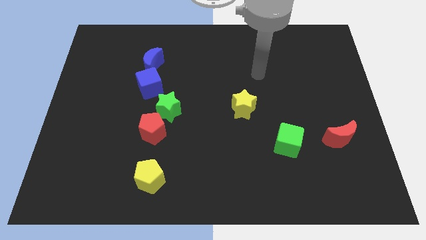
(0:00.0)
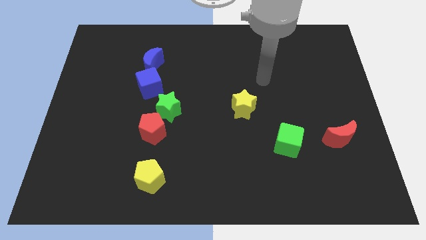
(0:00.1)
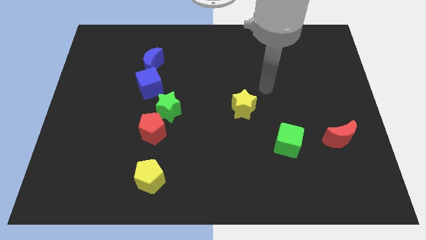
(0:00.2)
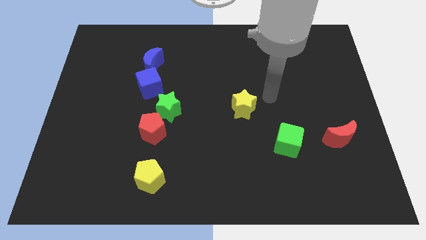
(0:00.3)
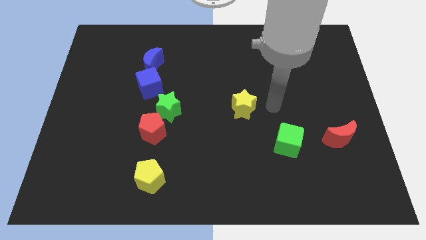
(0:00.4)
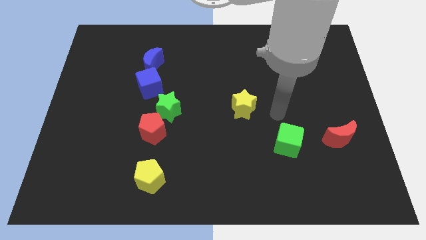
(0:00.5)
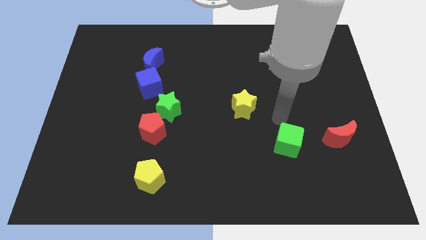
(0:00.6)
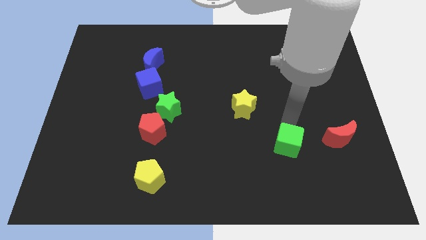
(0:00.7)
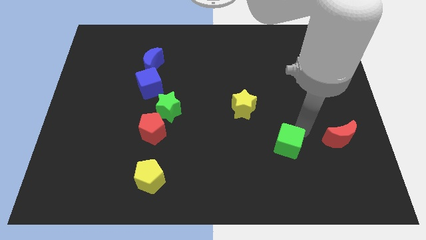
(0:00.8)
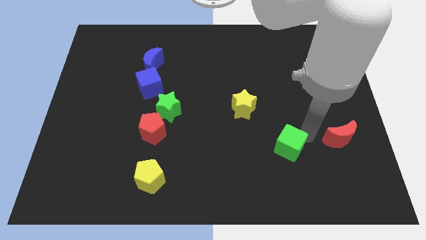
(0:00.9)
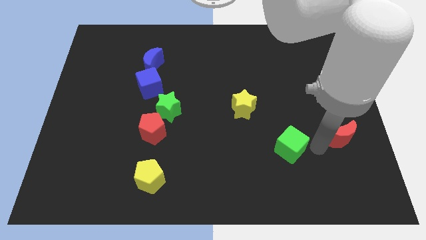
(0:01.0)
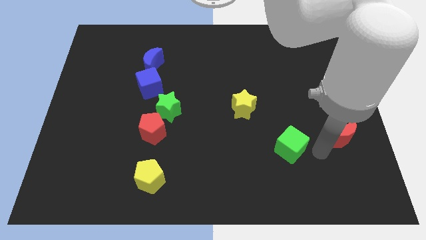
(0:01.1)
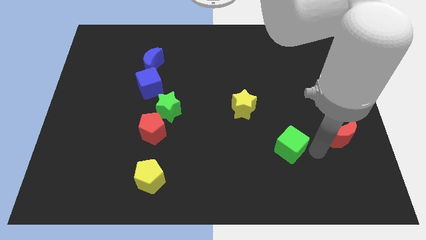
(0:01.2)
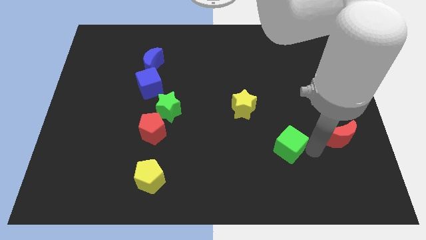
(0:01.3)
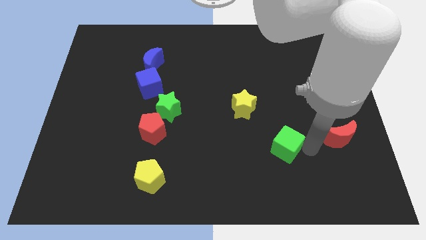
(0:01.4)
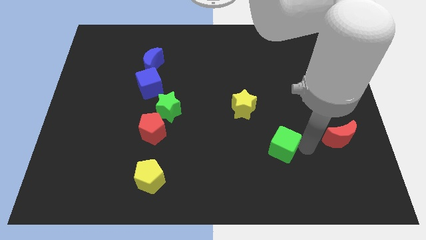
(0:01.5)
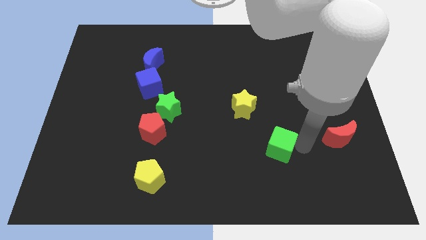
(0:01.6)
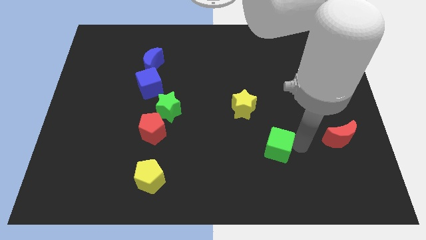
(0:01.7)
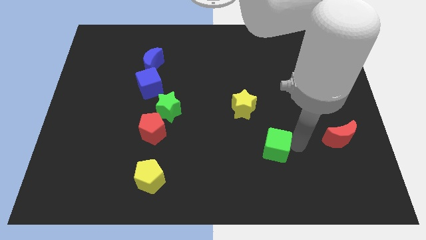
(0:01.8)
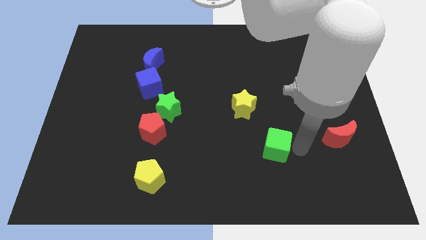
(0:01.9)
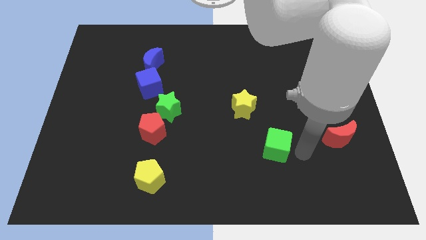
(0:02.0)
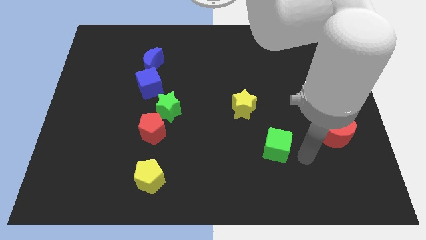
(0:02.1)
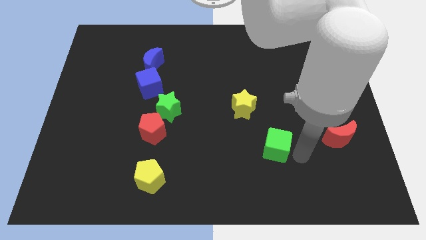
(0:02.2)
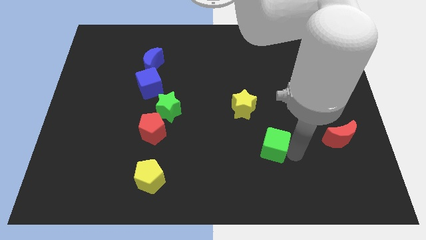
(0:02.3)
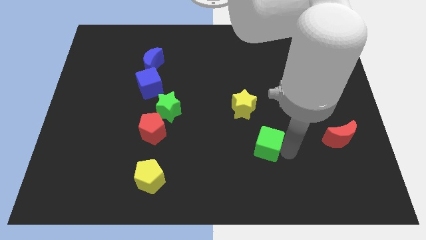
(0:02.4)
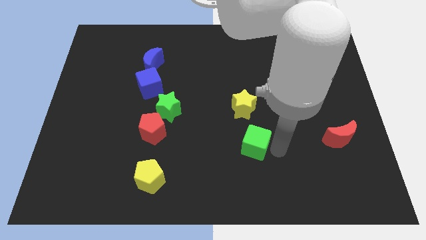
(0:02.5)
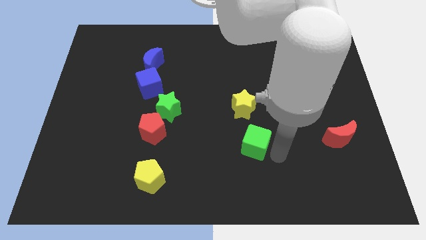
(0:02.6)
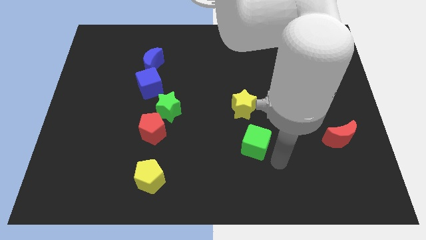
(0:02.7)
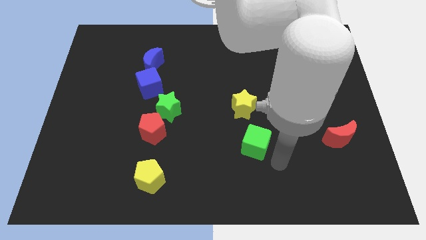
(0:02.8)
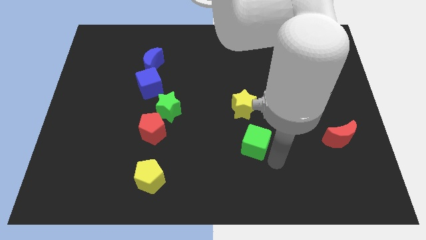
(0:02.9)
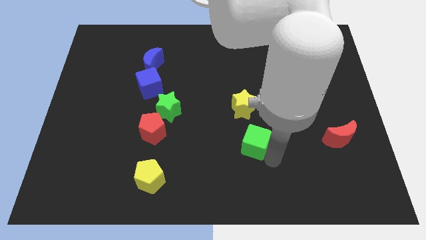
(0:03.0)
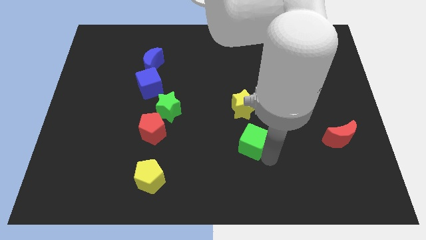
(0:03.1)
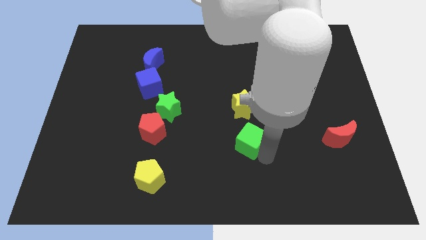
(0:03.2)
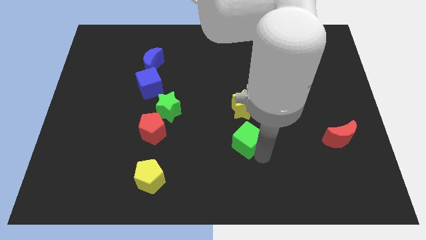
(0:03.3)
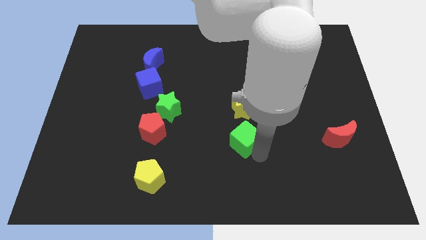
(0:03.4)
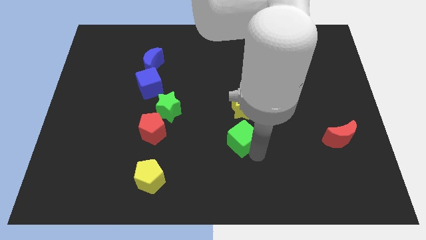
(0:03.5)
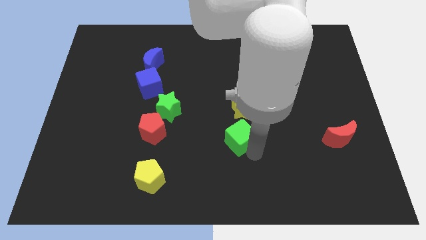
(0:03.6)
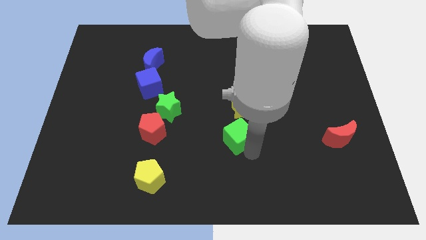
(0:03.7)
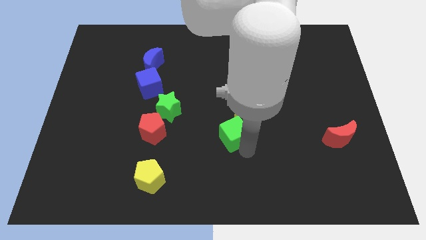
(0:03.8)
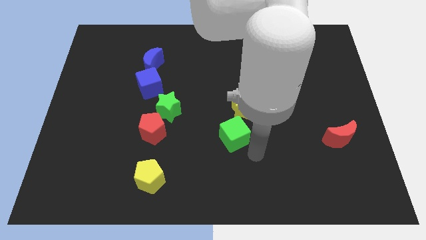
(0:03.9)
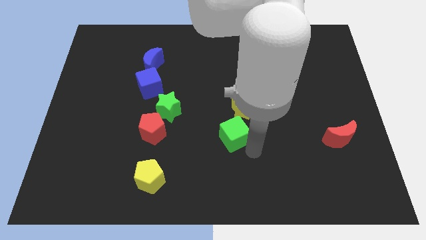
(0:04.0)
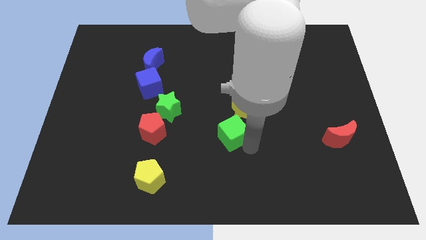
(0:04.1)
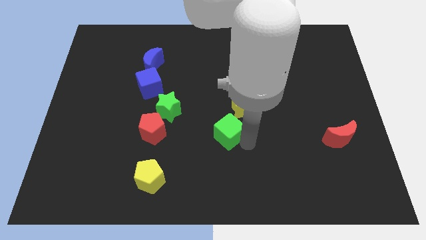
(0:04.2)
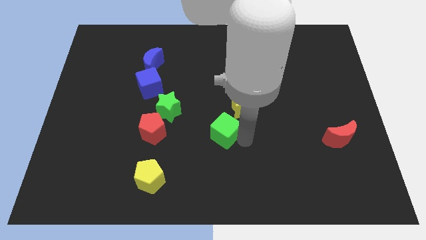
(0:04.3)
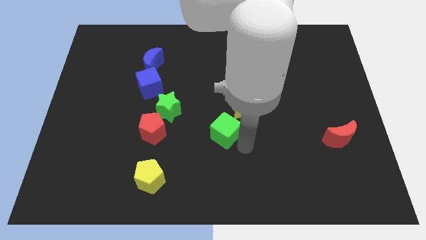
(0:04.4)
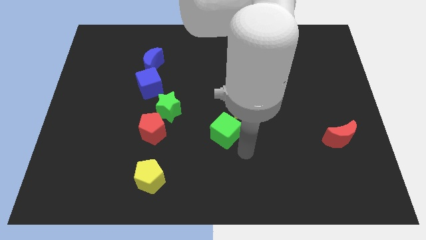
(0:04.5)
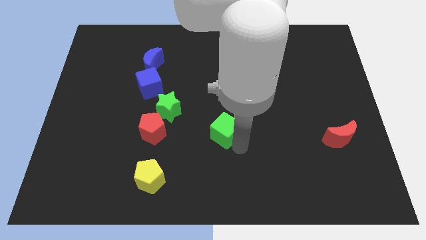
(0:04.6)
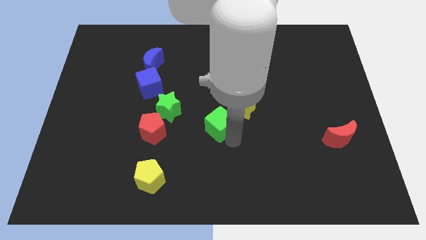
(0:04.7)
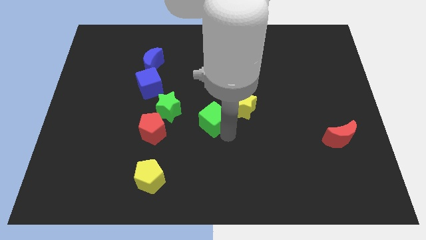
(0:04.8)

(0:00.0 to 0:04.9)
move the green cube left of the yellow star

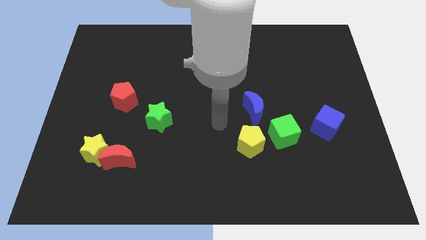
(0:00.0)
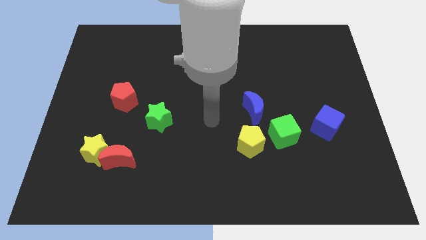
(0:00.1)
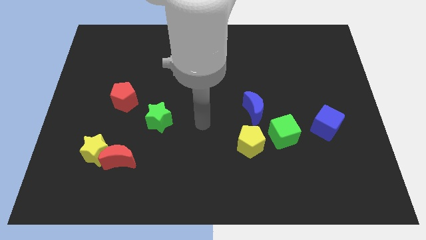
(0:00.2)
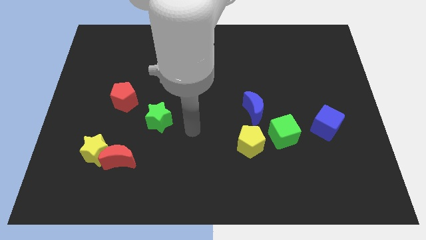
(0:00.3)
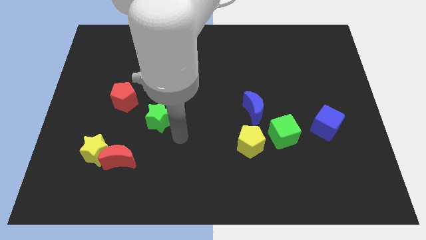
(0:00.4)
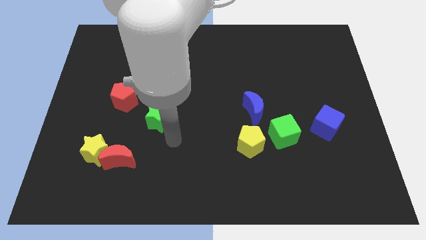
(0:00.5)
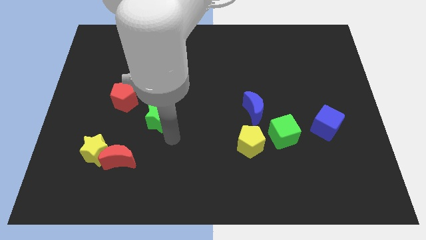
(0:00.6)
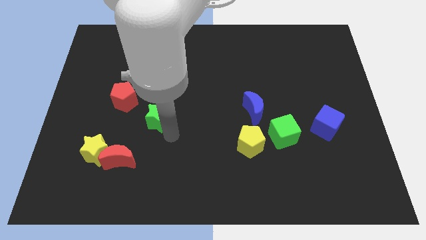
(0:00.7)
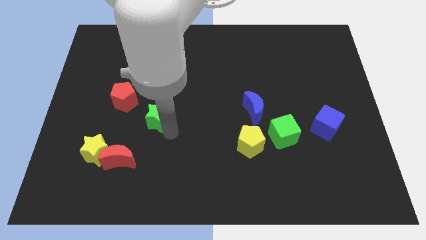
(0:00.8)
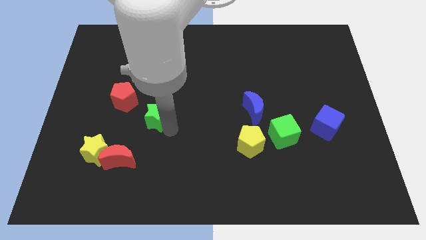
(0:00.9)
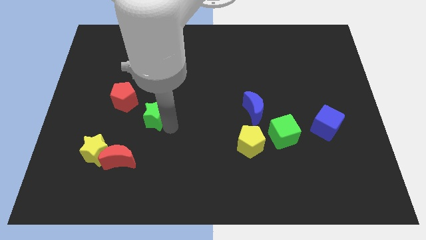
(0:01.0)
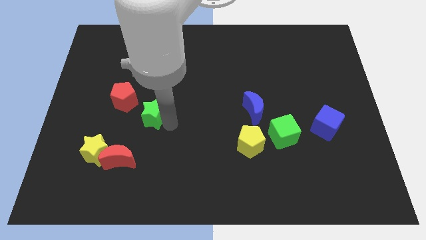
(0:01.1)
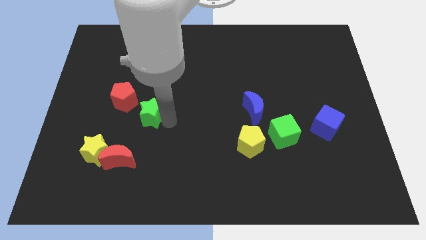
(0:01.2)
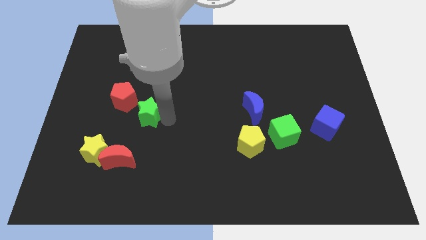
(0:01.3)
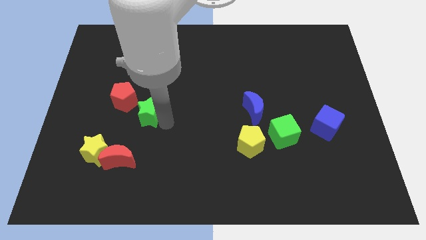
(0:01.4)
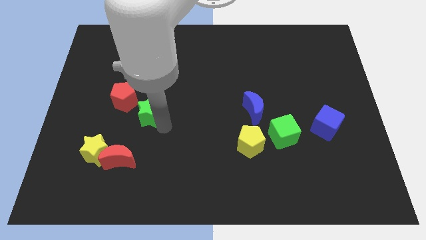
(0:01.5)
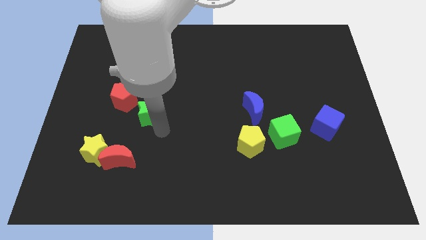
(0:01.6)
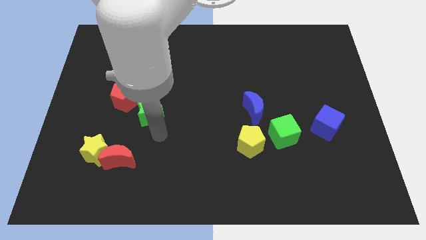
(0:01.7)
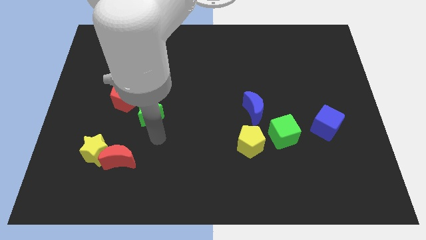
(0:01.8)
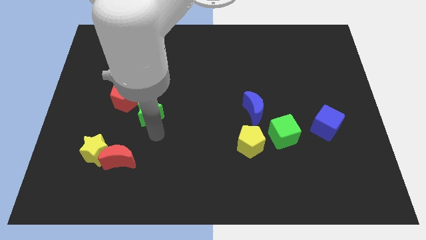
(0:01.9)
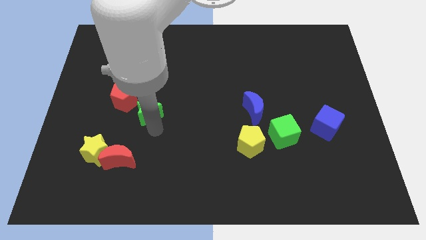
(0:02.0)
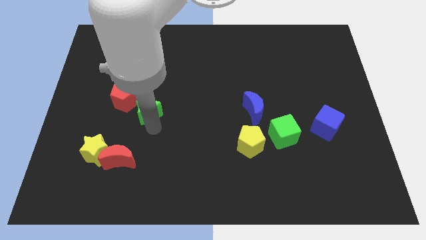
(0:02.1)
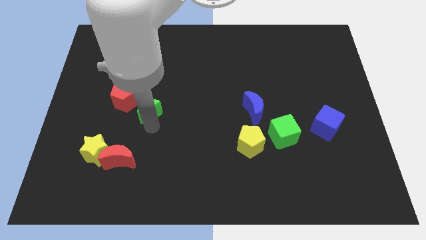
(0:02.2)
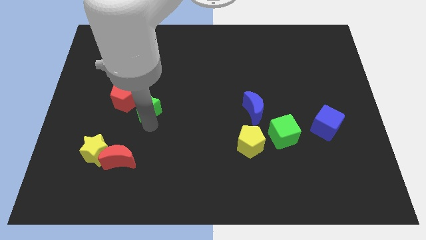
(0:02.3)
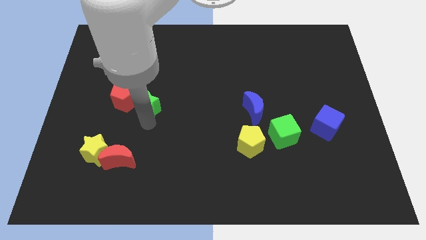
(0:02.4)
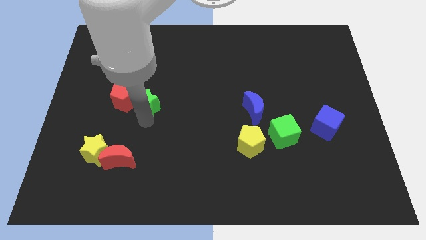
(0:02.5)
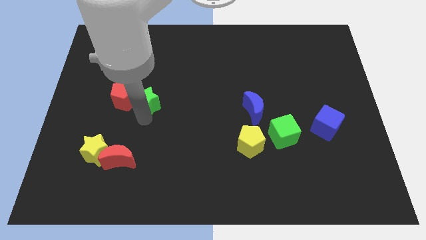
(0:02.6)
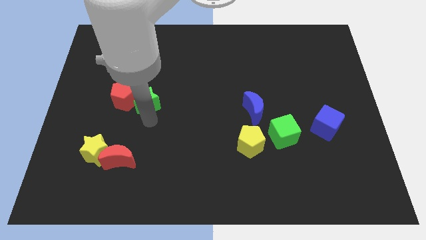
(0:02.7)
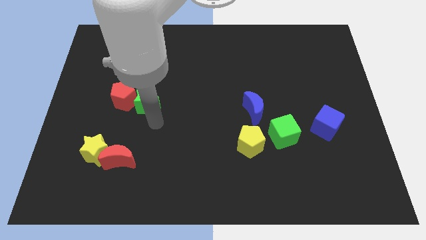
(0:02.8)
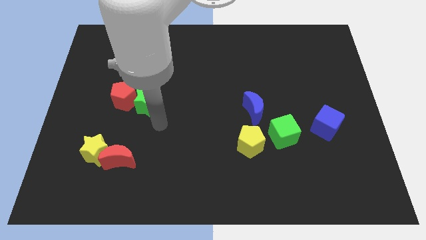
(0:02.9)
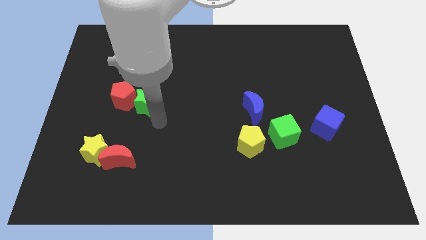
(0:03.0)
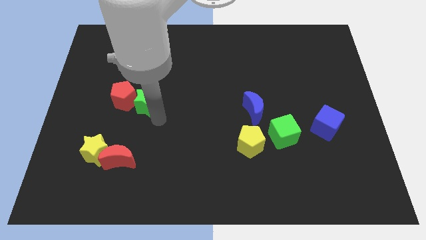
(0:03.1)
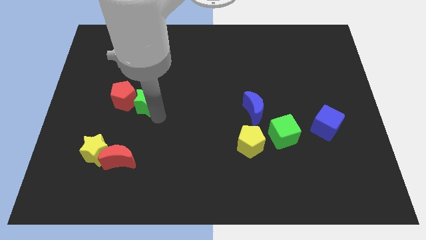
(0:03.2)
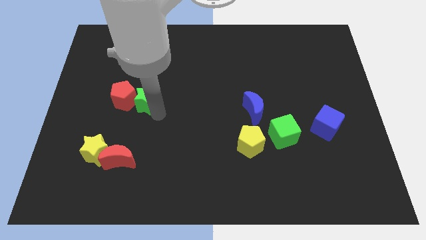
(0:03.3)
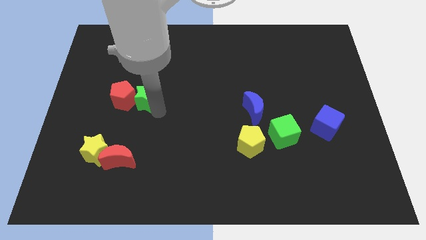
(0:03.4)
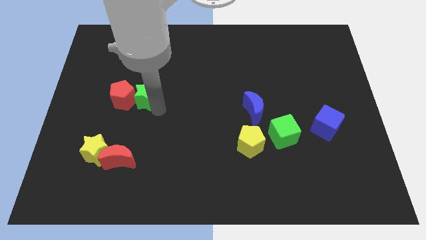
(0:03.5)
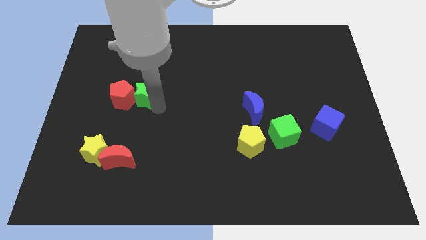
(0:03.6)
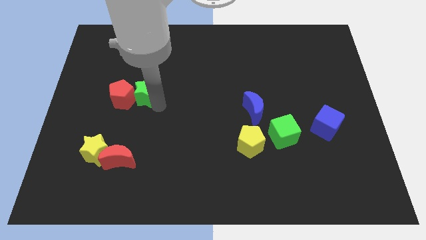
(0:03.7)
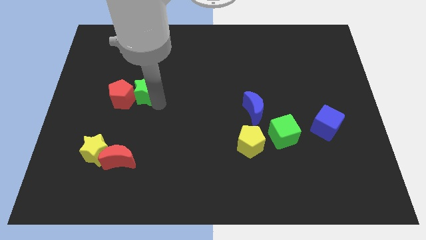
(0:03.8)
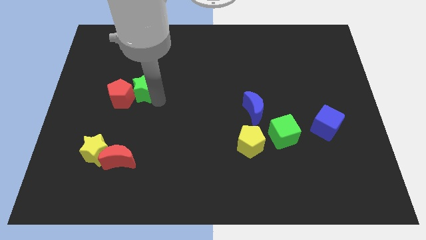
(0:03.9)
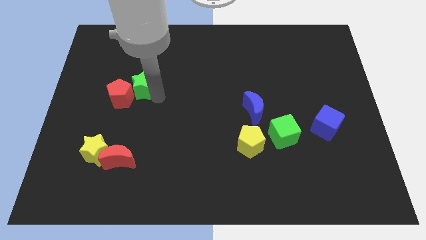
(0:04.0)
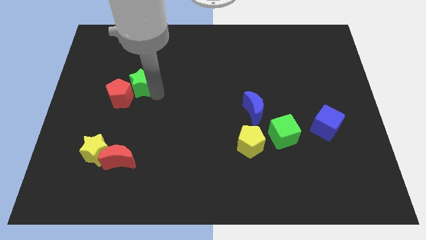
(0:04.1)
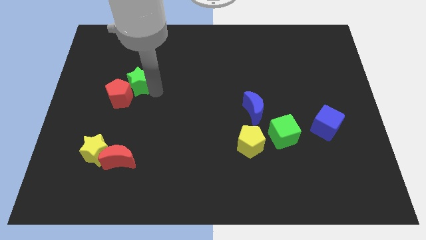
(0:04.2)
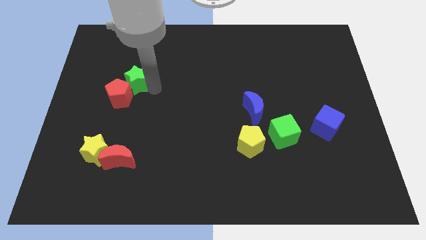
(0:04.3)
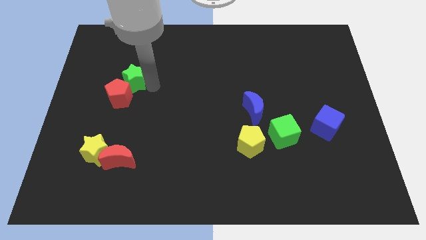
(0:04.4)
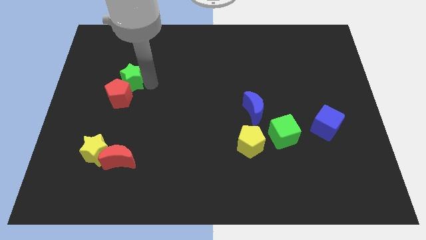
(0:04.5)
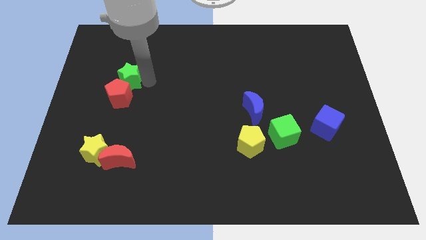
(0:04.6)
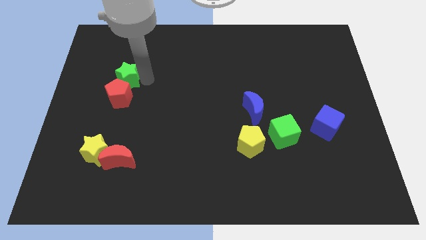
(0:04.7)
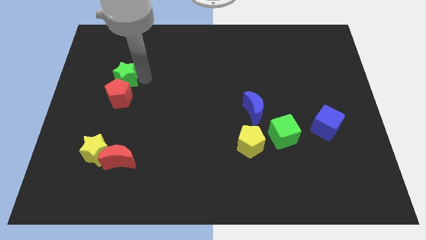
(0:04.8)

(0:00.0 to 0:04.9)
push the green star to the top left of the red pentagon
